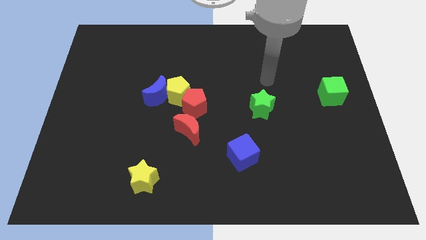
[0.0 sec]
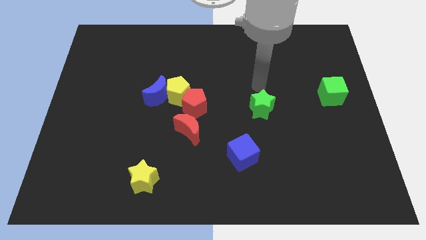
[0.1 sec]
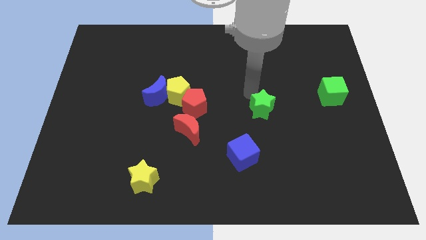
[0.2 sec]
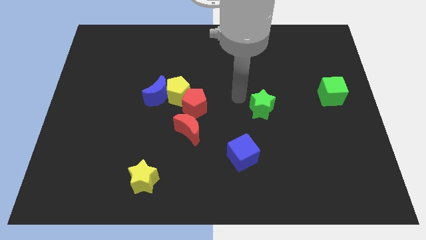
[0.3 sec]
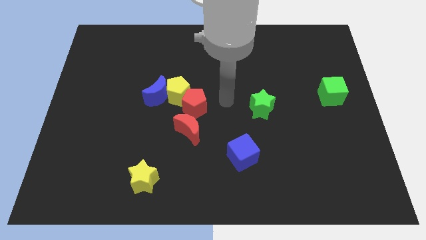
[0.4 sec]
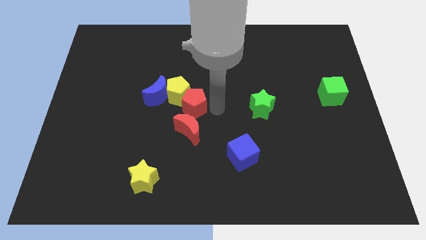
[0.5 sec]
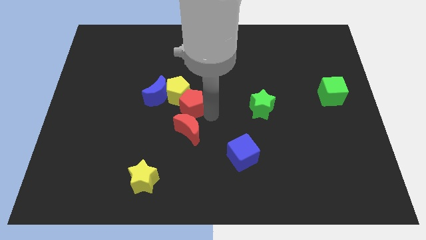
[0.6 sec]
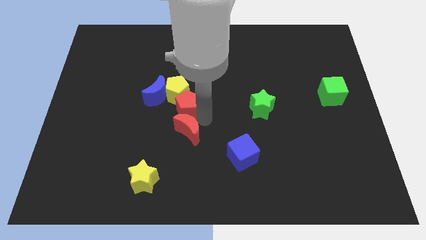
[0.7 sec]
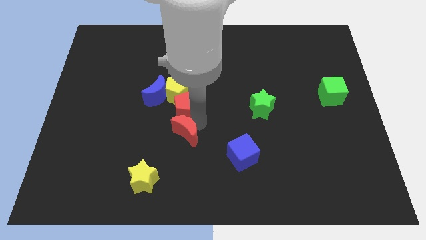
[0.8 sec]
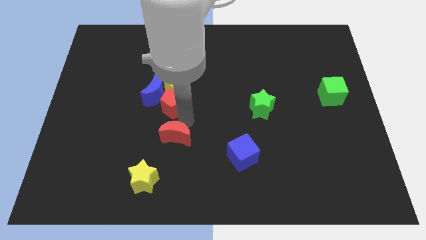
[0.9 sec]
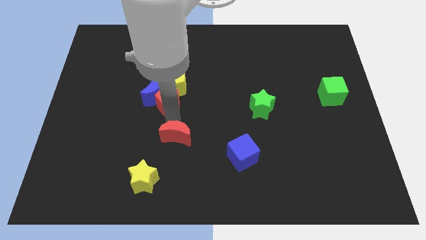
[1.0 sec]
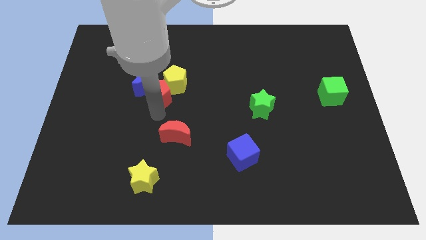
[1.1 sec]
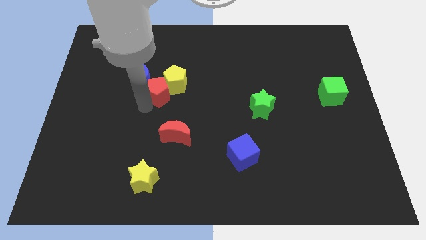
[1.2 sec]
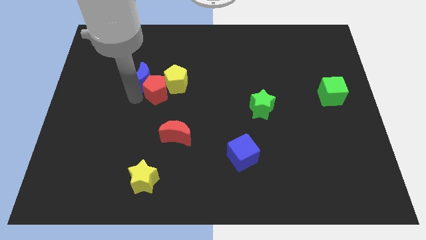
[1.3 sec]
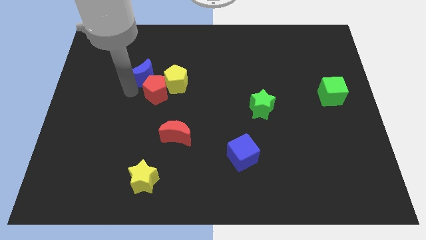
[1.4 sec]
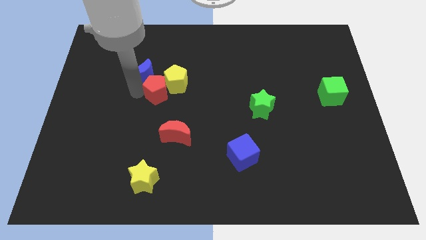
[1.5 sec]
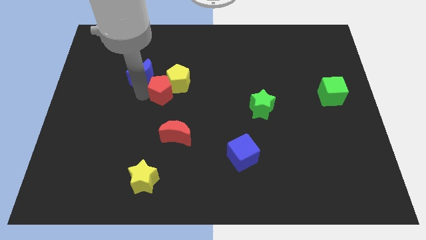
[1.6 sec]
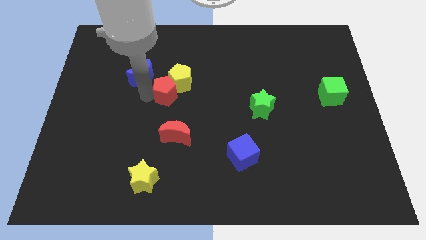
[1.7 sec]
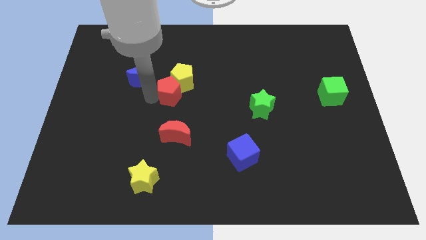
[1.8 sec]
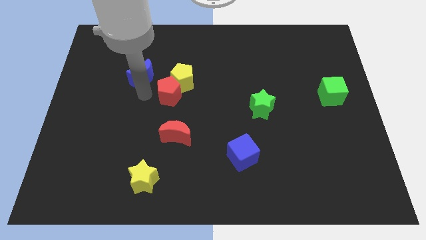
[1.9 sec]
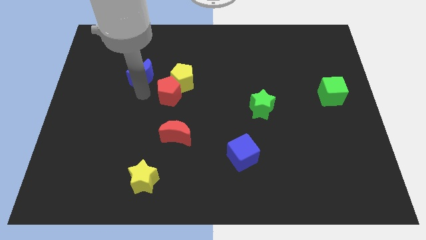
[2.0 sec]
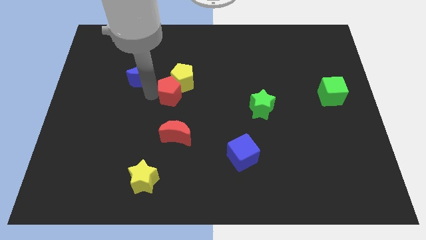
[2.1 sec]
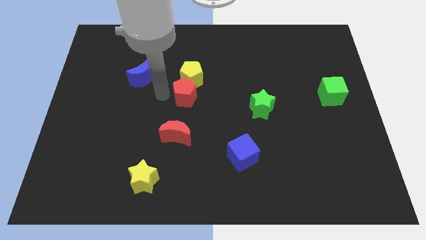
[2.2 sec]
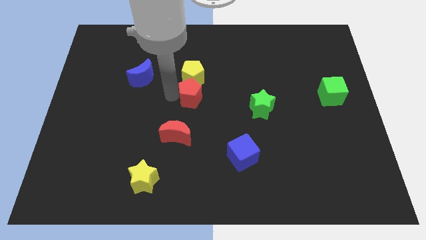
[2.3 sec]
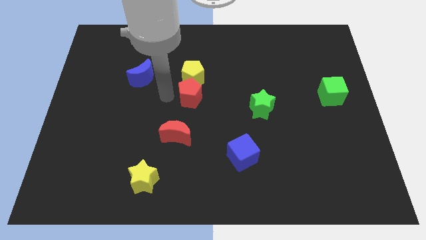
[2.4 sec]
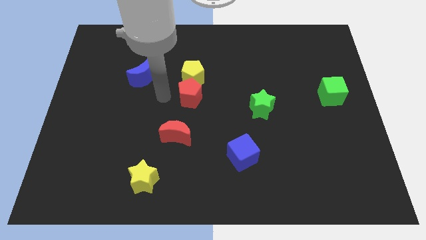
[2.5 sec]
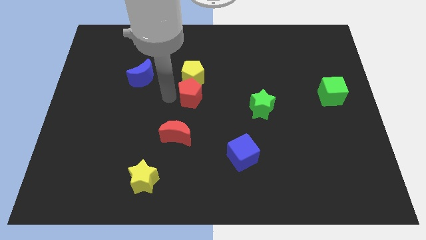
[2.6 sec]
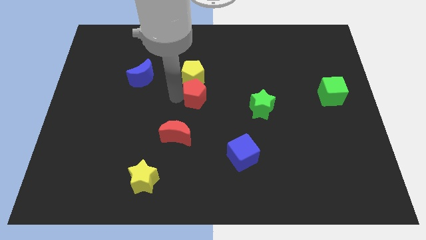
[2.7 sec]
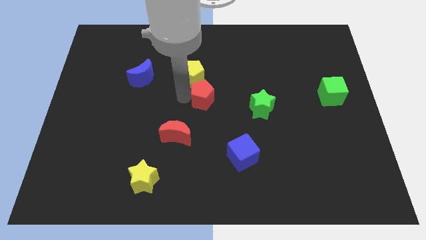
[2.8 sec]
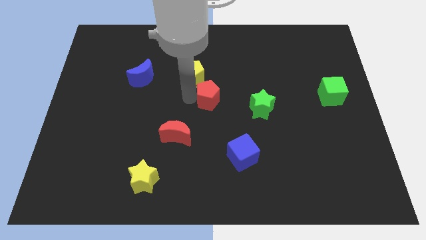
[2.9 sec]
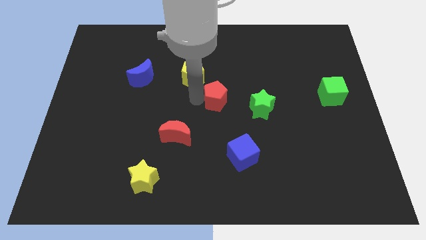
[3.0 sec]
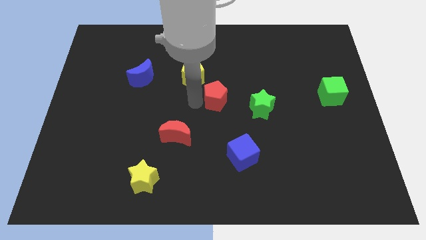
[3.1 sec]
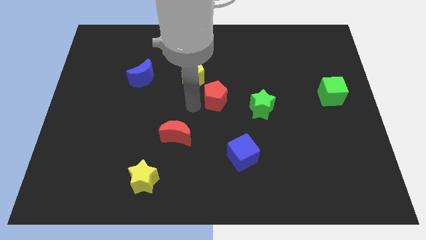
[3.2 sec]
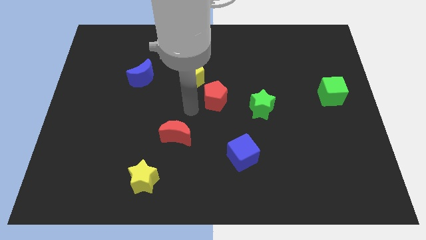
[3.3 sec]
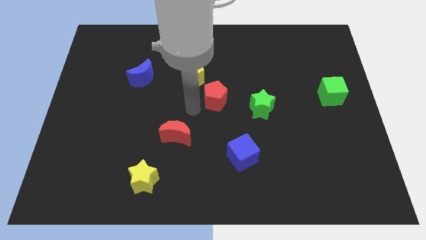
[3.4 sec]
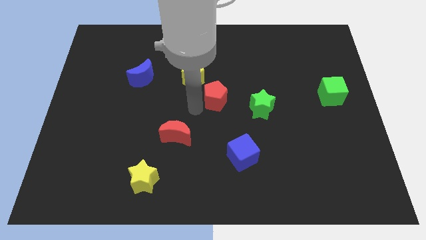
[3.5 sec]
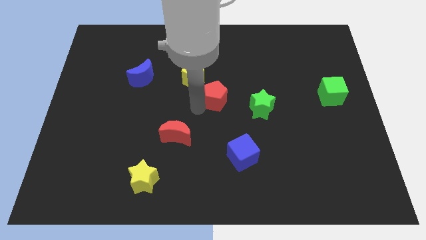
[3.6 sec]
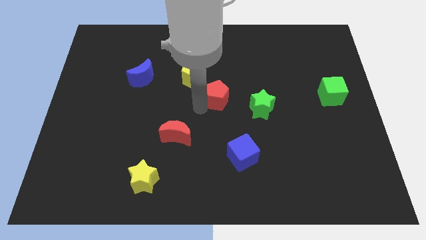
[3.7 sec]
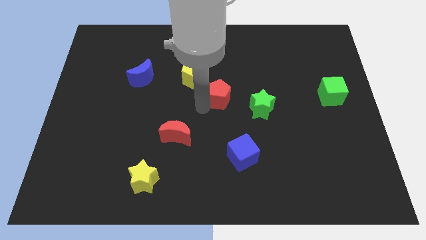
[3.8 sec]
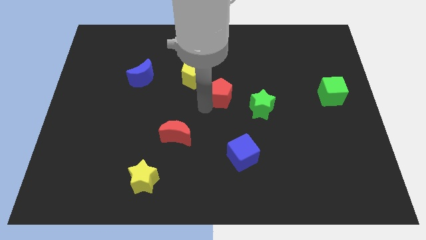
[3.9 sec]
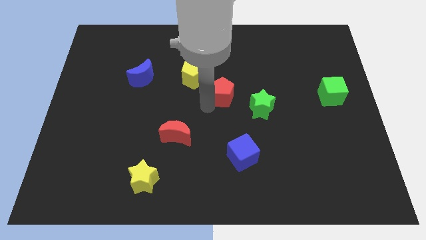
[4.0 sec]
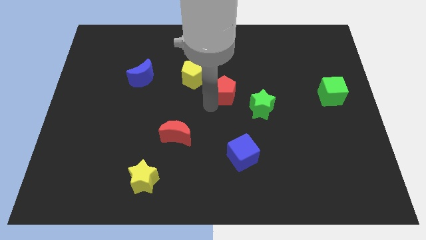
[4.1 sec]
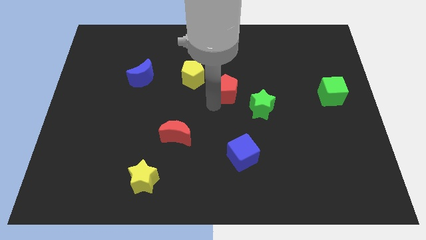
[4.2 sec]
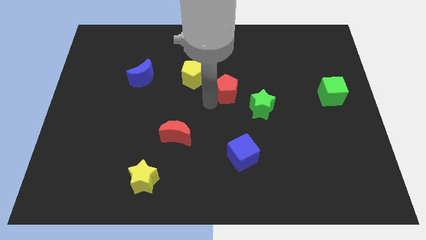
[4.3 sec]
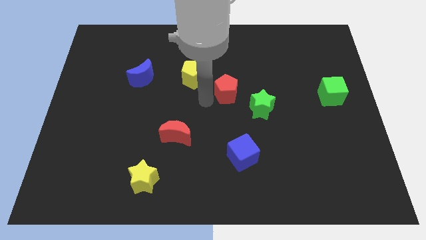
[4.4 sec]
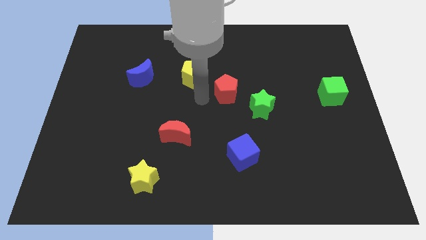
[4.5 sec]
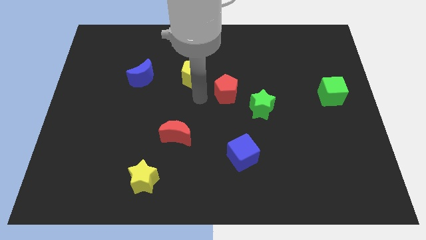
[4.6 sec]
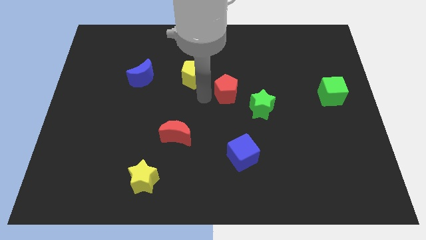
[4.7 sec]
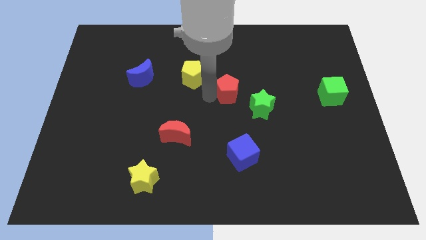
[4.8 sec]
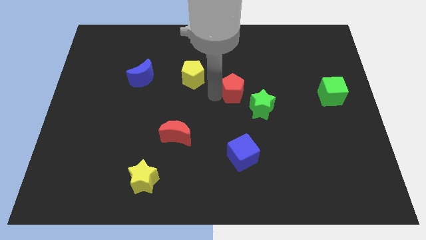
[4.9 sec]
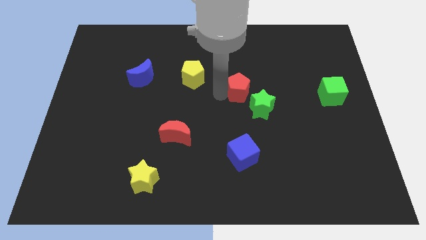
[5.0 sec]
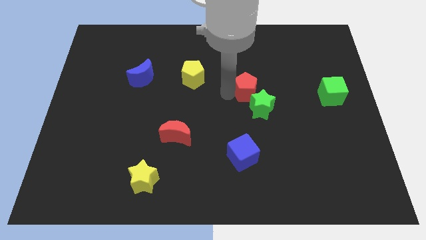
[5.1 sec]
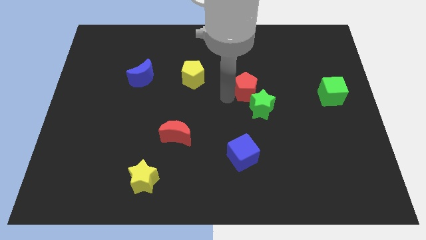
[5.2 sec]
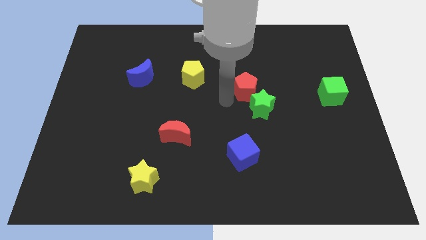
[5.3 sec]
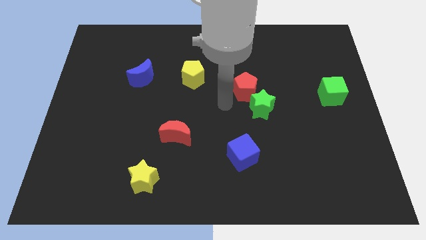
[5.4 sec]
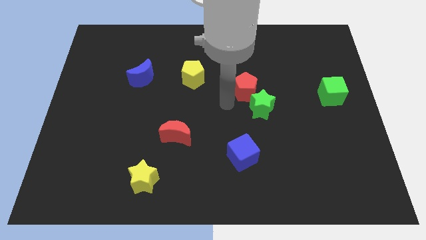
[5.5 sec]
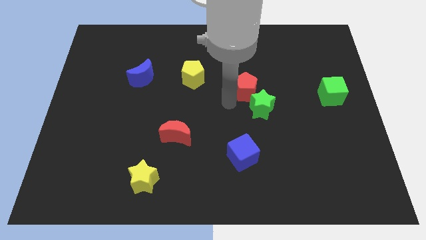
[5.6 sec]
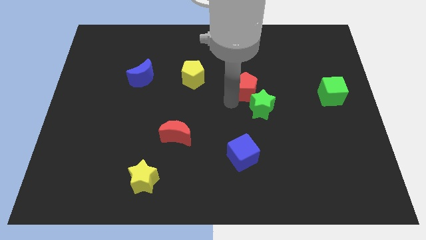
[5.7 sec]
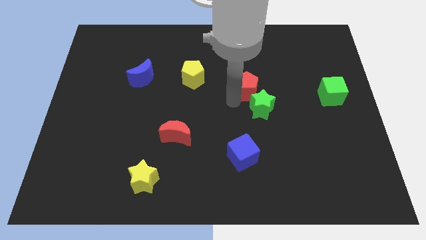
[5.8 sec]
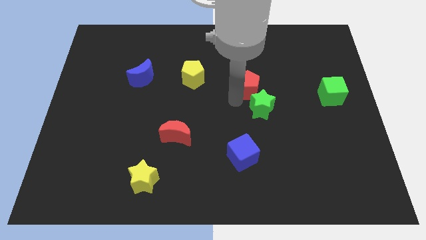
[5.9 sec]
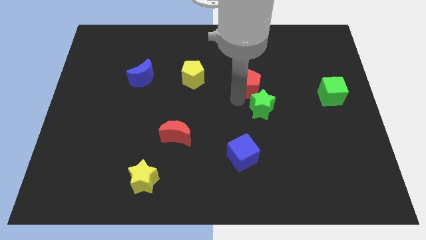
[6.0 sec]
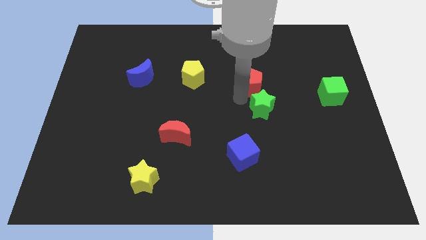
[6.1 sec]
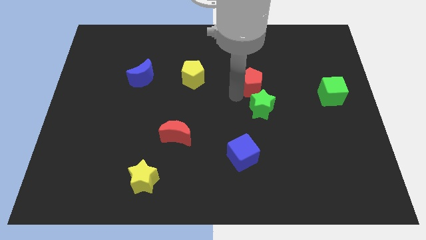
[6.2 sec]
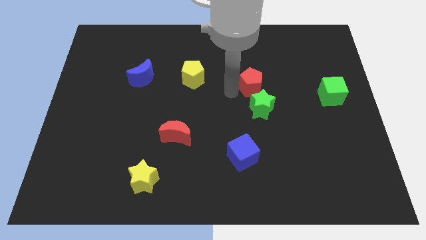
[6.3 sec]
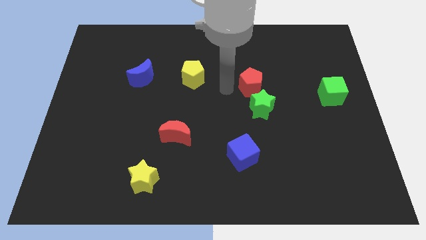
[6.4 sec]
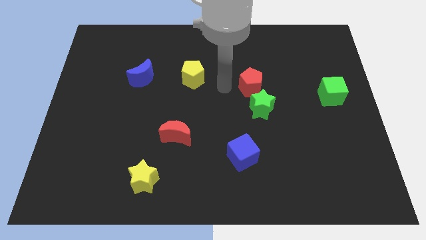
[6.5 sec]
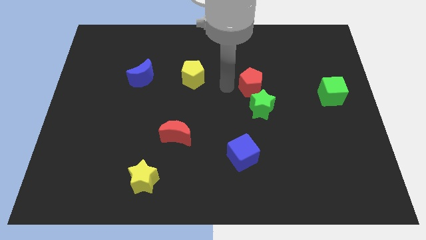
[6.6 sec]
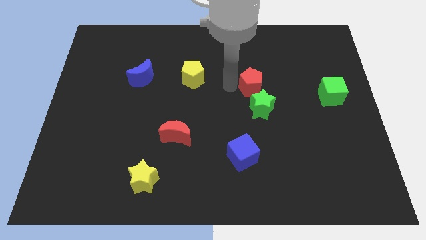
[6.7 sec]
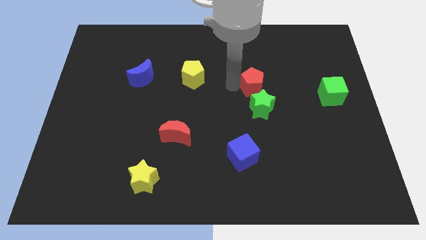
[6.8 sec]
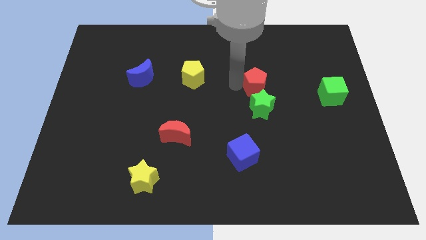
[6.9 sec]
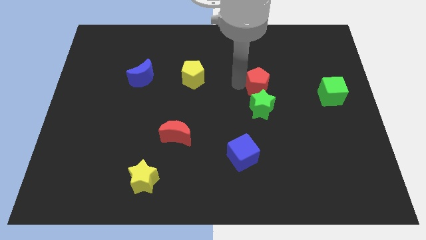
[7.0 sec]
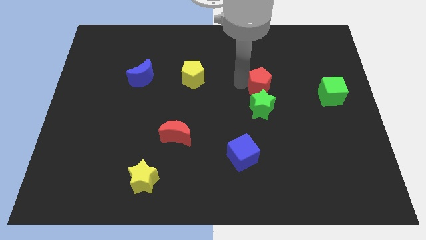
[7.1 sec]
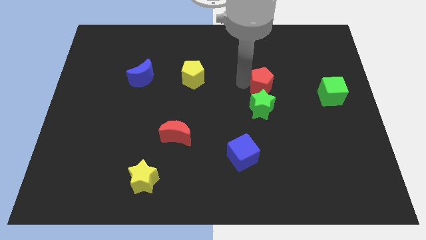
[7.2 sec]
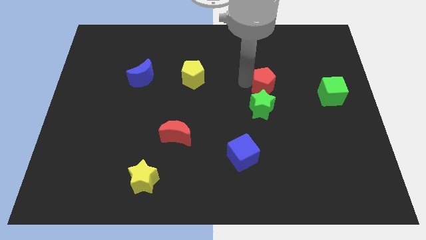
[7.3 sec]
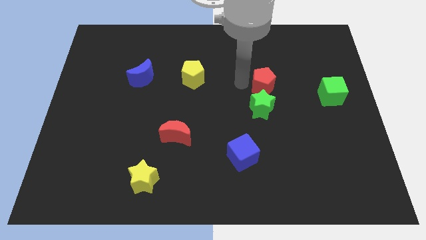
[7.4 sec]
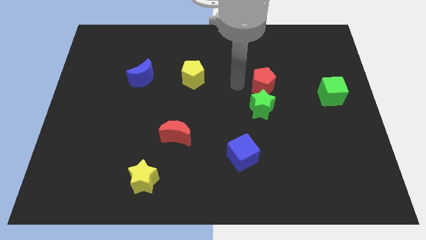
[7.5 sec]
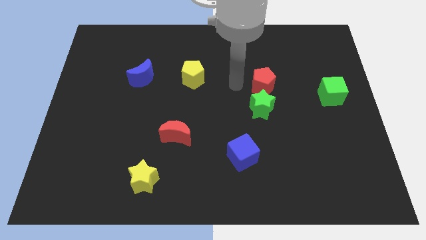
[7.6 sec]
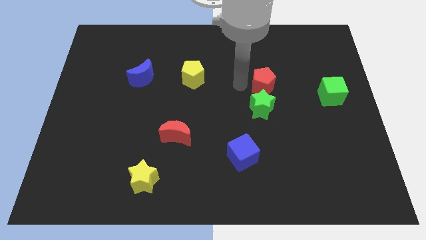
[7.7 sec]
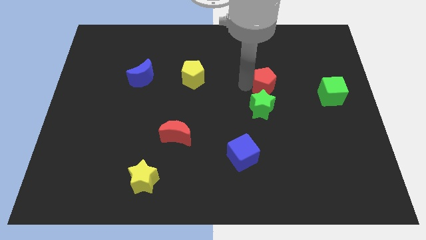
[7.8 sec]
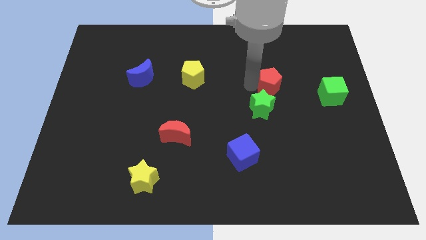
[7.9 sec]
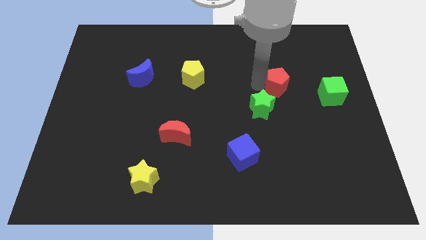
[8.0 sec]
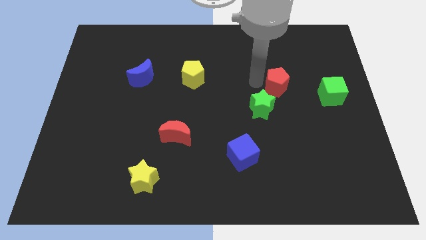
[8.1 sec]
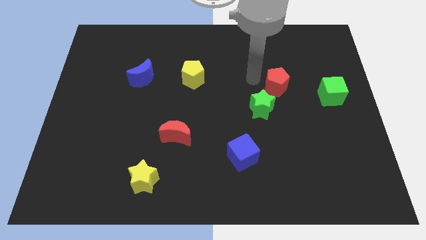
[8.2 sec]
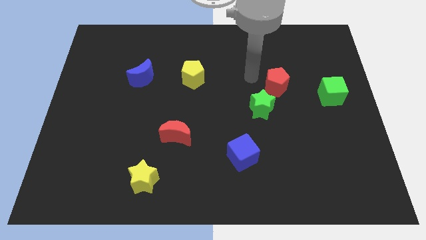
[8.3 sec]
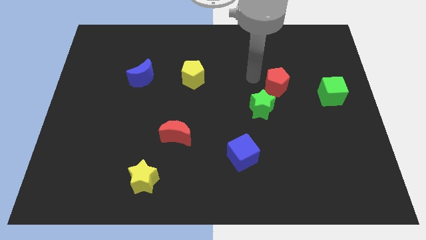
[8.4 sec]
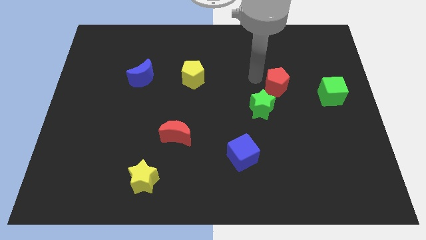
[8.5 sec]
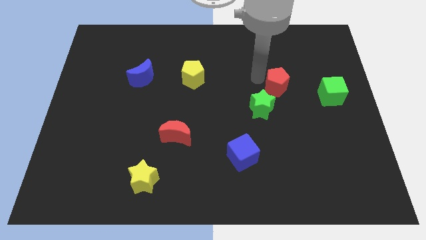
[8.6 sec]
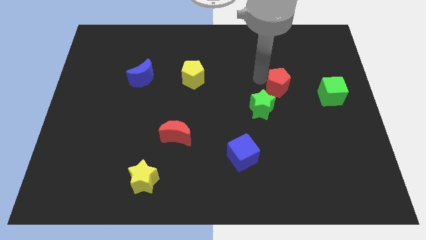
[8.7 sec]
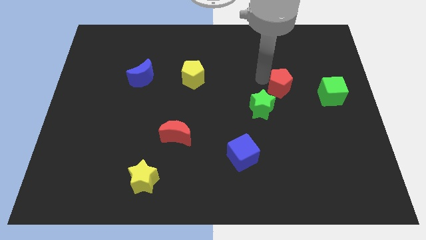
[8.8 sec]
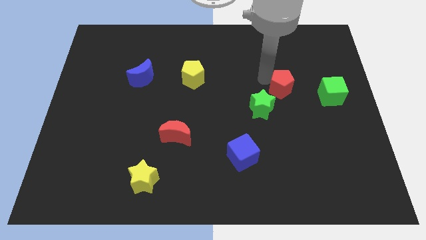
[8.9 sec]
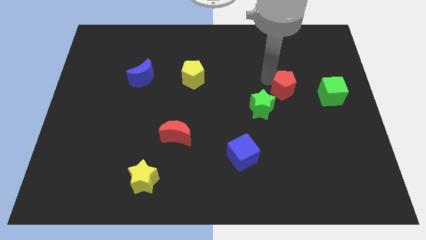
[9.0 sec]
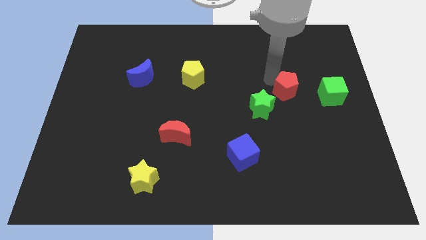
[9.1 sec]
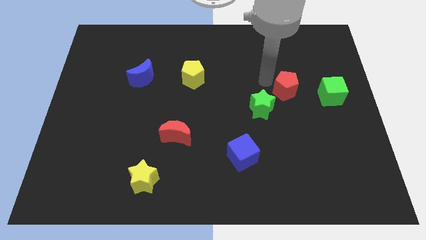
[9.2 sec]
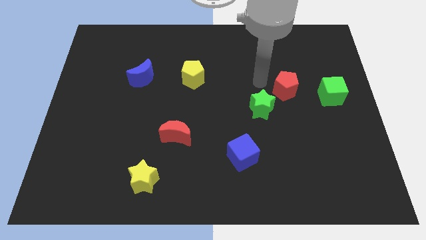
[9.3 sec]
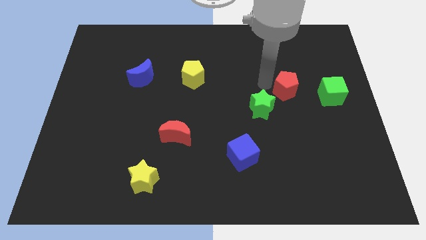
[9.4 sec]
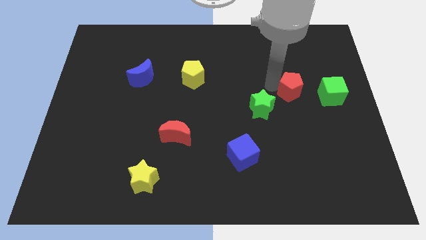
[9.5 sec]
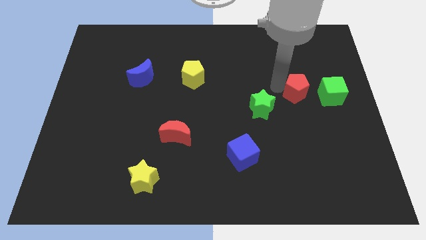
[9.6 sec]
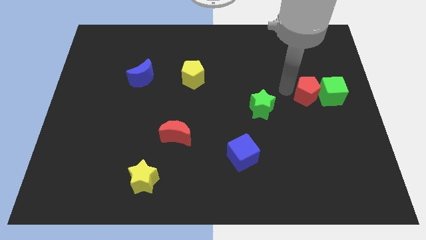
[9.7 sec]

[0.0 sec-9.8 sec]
push the red pentagon towards the green cube
